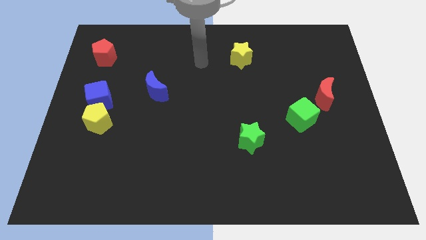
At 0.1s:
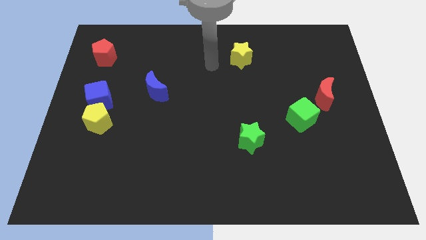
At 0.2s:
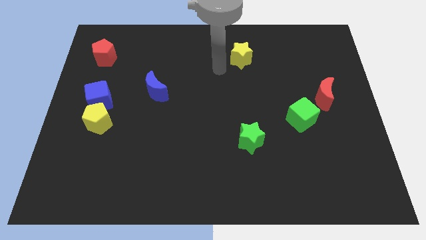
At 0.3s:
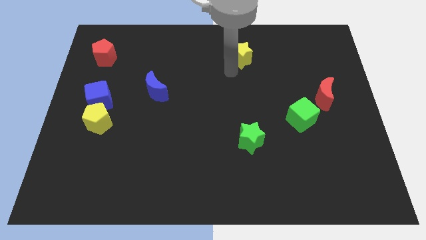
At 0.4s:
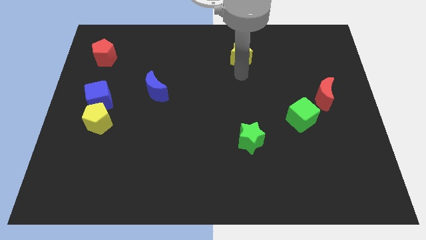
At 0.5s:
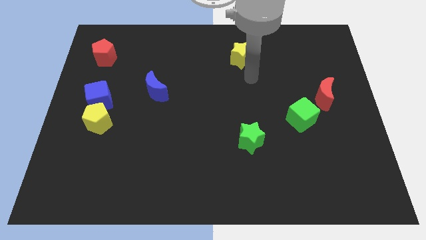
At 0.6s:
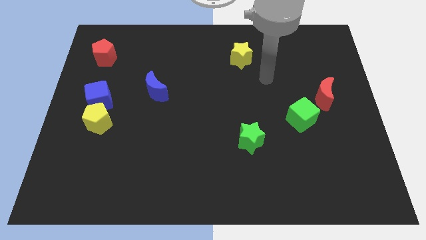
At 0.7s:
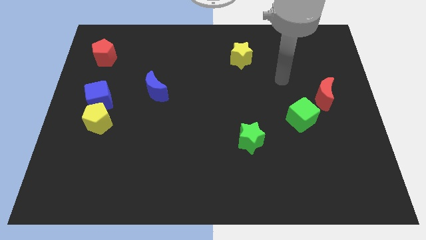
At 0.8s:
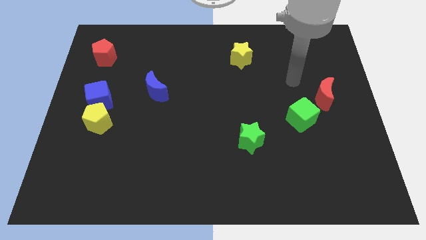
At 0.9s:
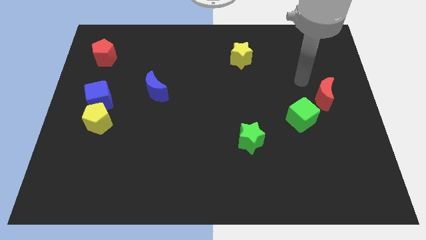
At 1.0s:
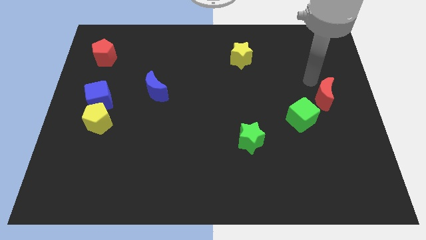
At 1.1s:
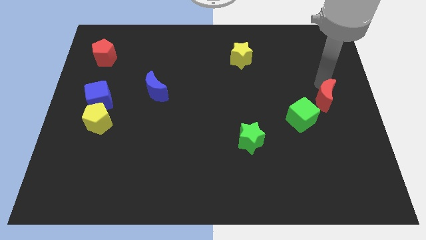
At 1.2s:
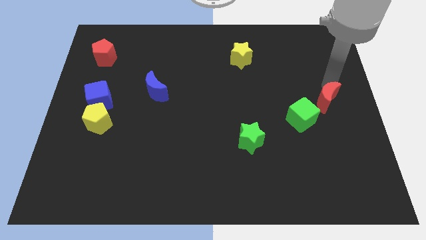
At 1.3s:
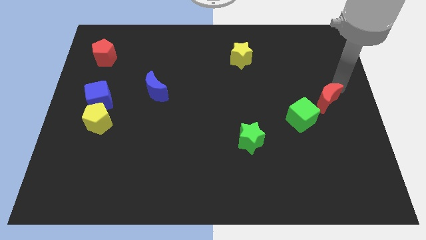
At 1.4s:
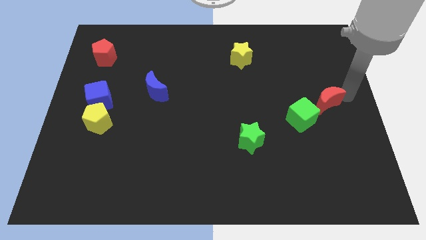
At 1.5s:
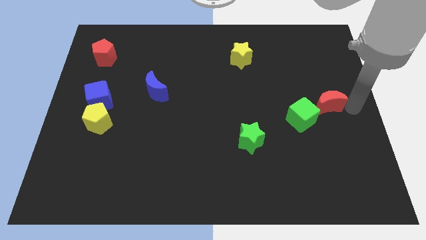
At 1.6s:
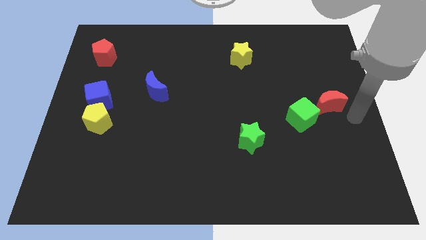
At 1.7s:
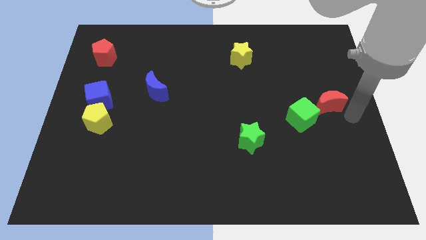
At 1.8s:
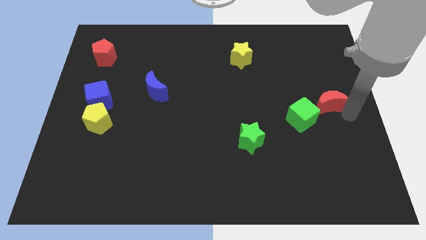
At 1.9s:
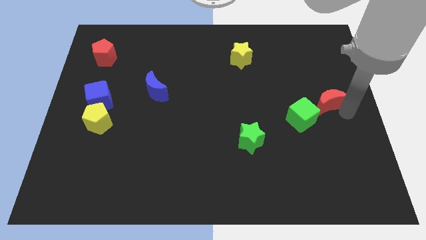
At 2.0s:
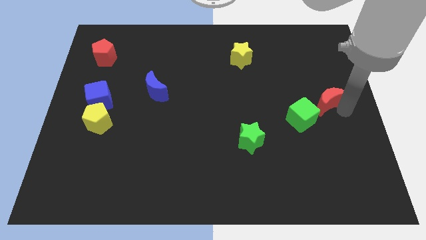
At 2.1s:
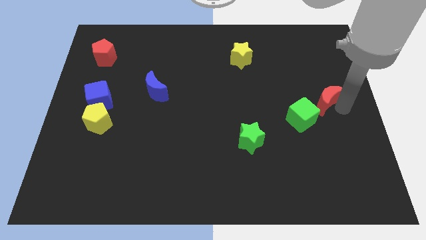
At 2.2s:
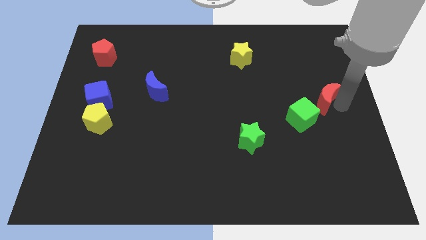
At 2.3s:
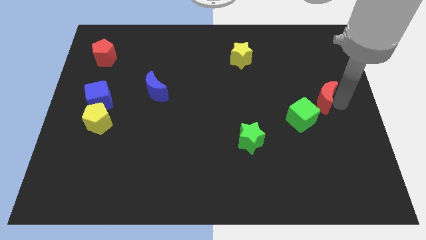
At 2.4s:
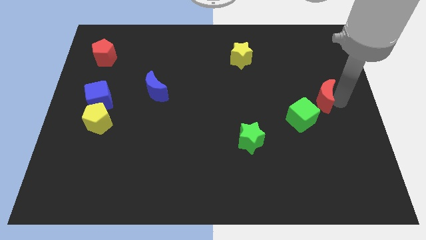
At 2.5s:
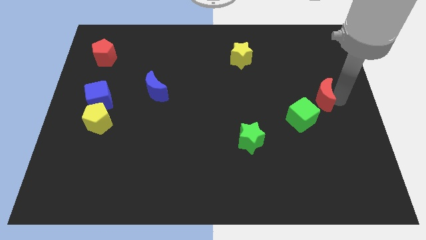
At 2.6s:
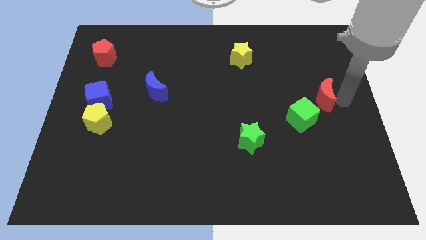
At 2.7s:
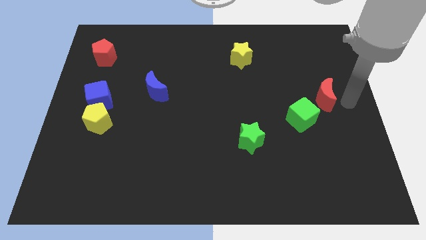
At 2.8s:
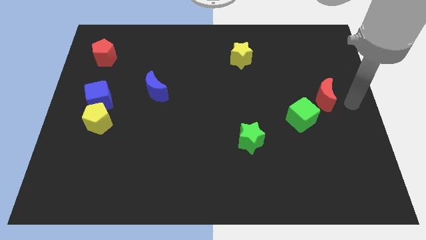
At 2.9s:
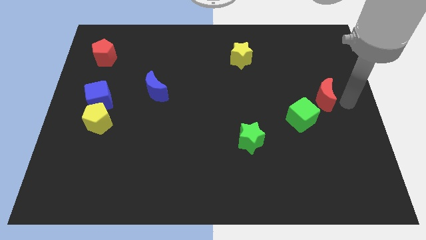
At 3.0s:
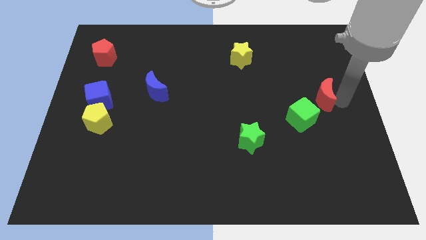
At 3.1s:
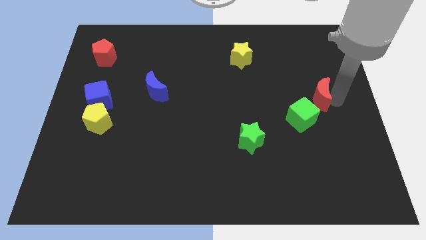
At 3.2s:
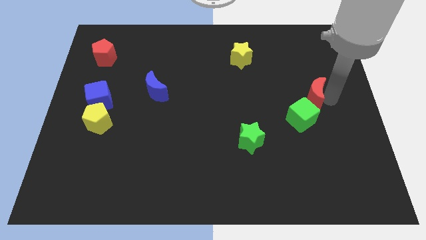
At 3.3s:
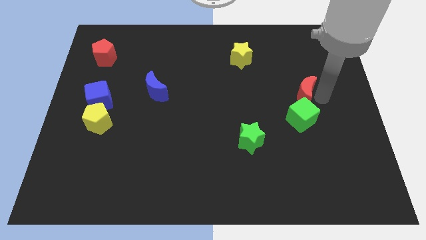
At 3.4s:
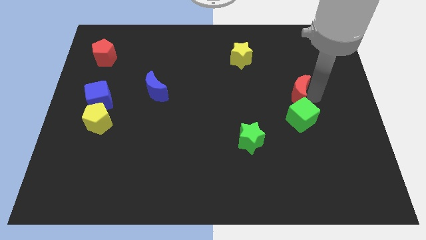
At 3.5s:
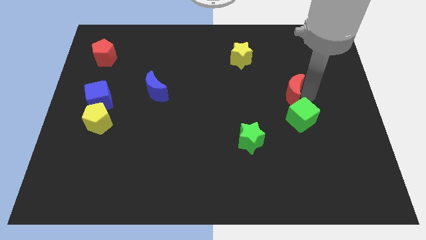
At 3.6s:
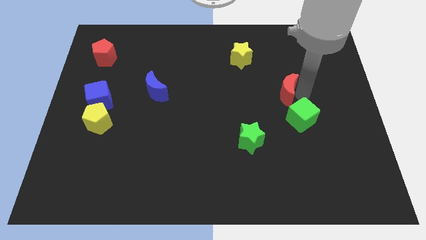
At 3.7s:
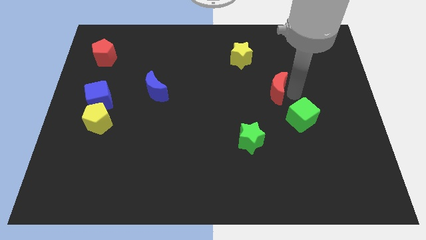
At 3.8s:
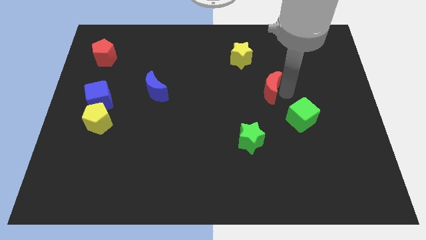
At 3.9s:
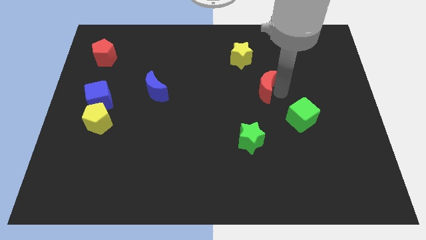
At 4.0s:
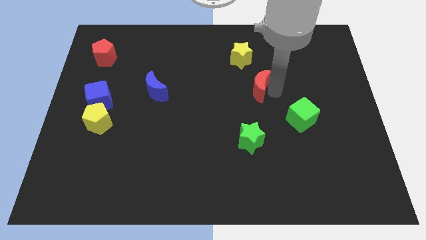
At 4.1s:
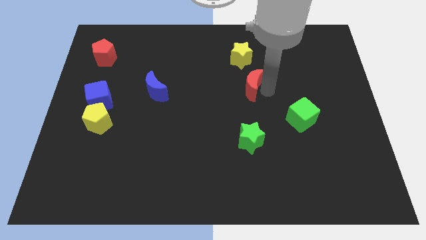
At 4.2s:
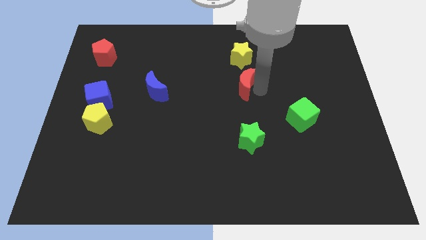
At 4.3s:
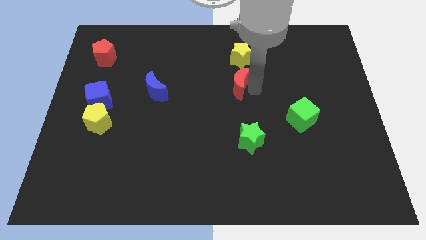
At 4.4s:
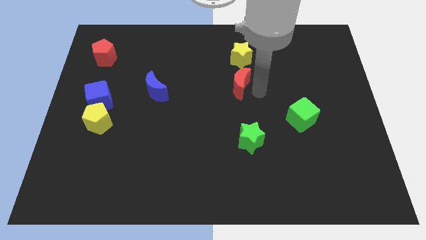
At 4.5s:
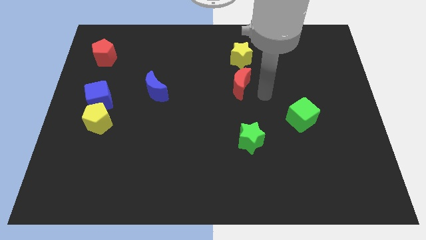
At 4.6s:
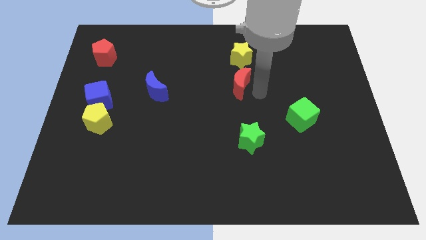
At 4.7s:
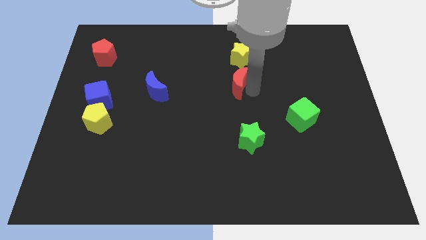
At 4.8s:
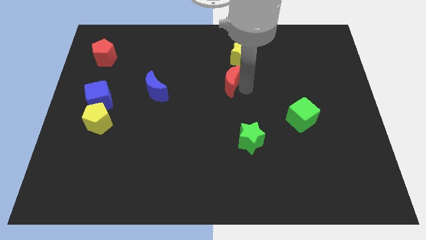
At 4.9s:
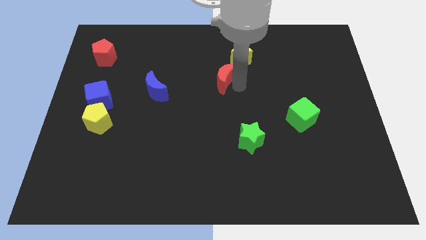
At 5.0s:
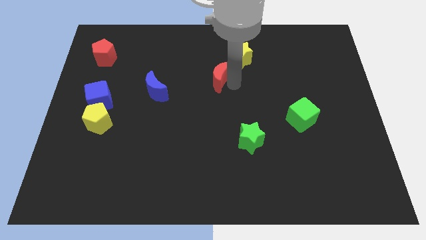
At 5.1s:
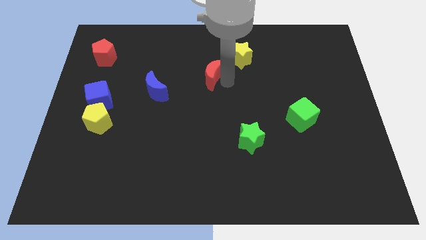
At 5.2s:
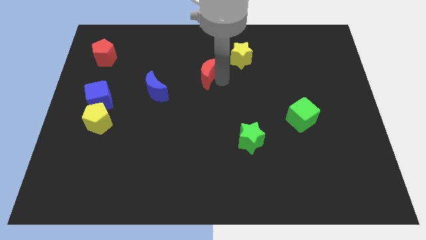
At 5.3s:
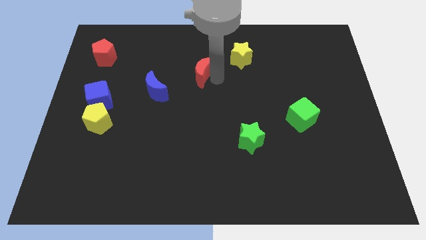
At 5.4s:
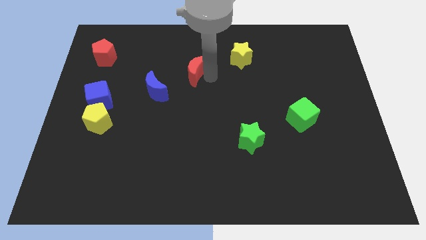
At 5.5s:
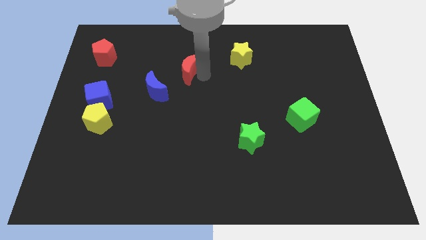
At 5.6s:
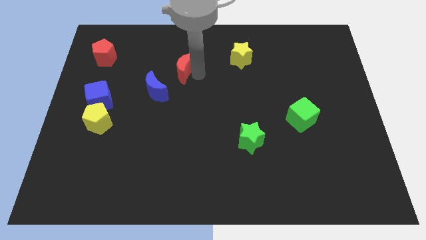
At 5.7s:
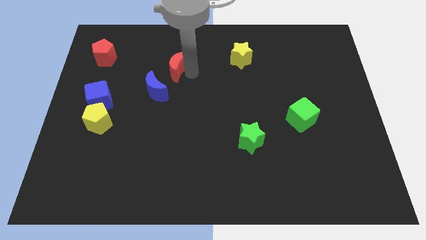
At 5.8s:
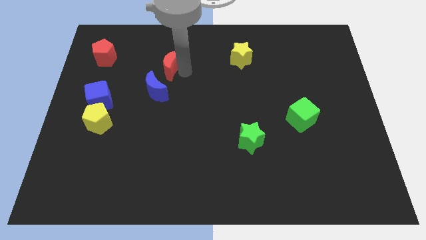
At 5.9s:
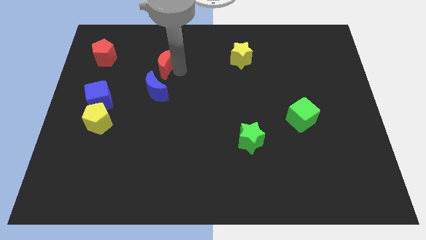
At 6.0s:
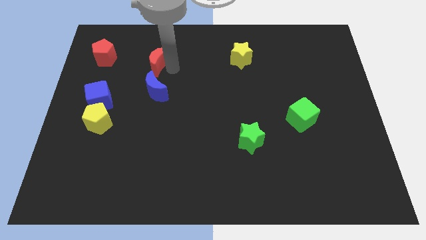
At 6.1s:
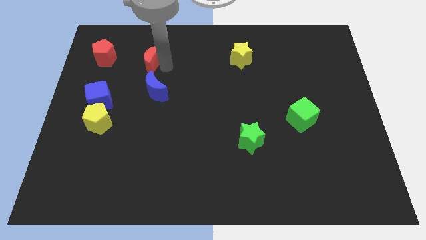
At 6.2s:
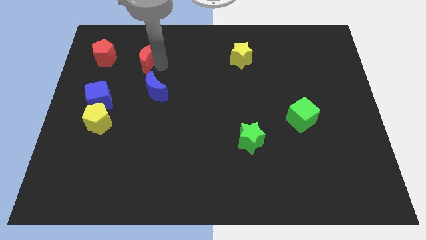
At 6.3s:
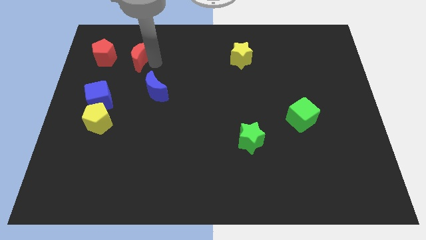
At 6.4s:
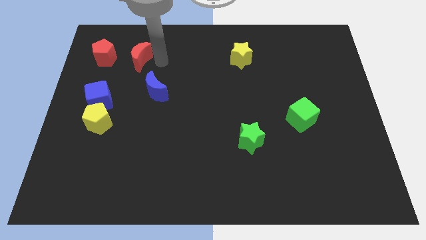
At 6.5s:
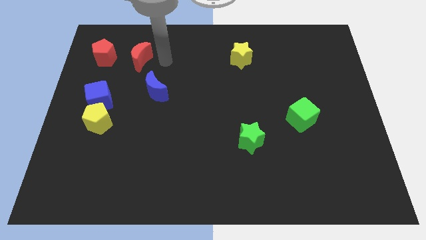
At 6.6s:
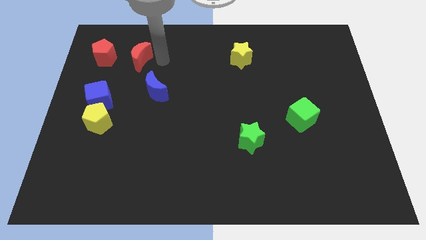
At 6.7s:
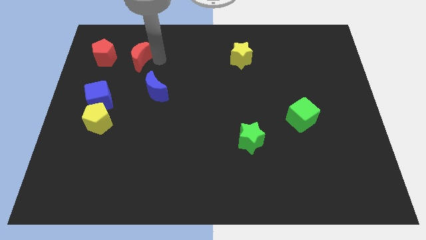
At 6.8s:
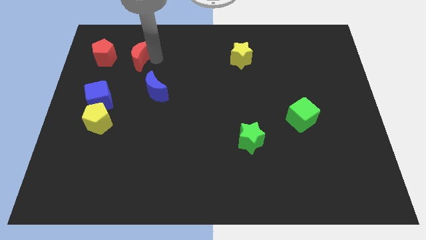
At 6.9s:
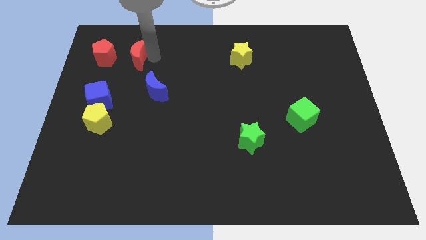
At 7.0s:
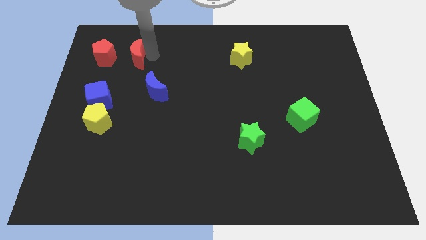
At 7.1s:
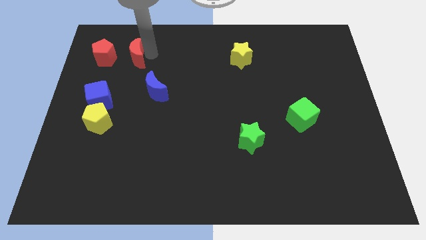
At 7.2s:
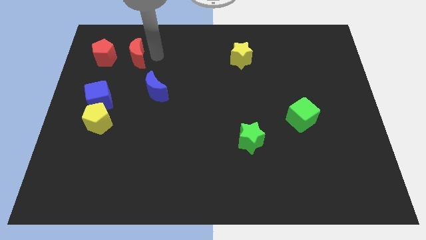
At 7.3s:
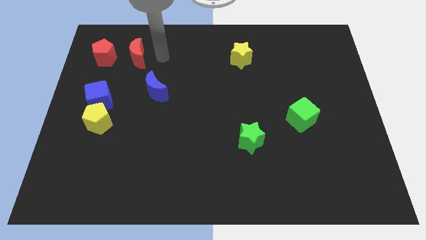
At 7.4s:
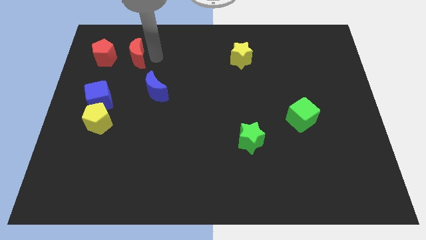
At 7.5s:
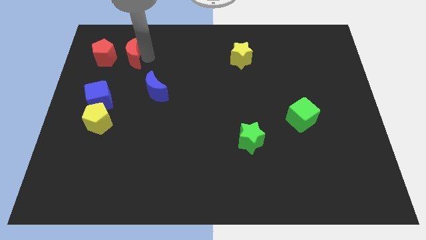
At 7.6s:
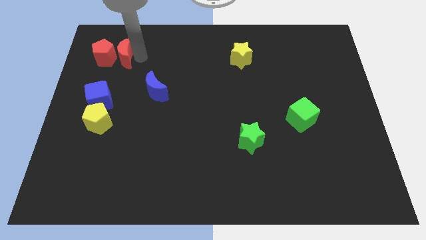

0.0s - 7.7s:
slide the red moon close to the red pentagon
